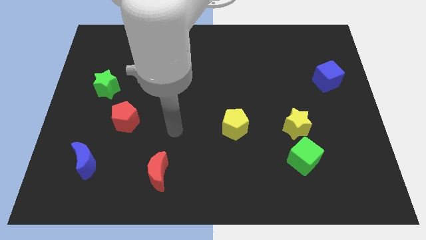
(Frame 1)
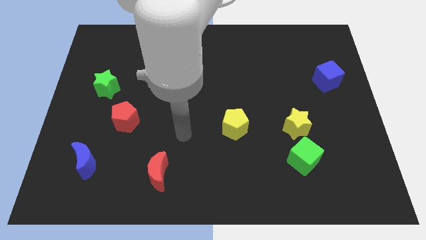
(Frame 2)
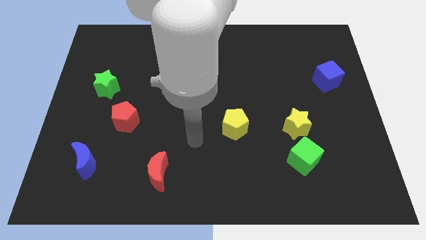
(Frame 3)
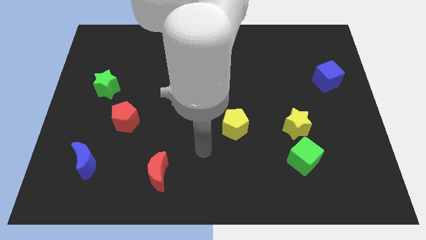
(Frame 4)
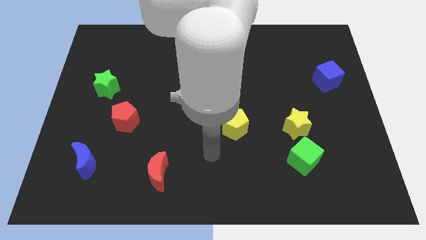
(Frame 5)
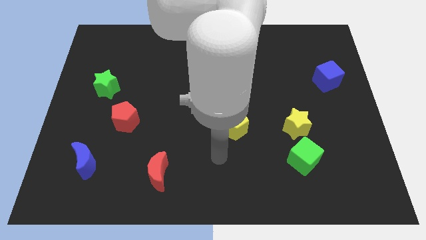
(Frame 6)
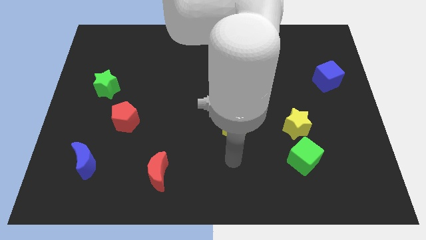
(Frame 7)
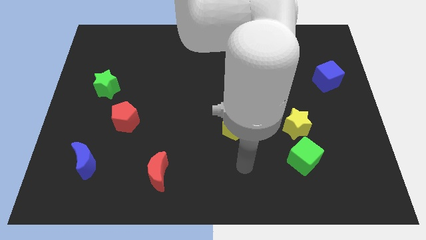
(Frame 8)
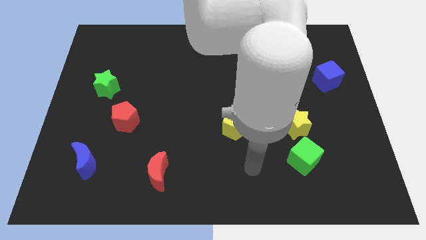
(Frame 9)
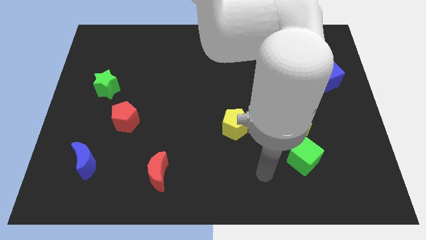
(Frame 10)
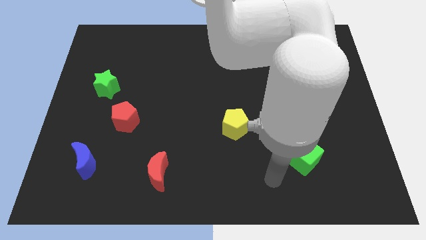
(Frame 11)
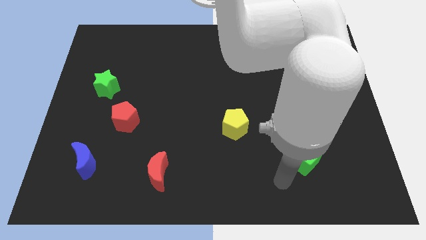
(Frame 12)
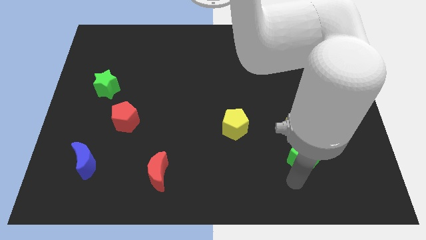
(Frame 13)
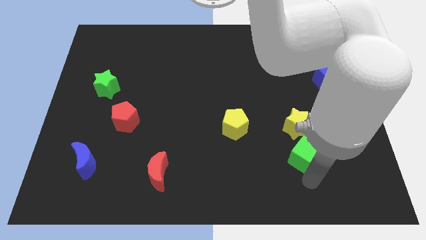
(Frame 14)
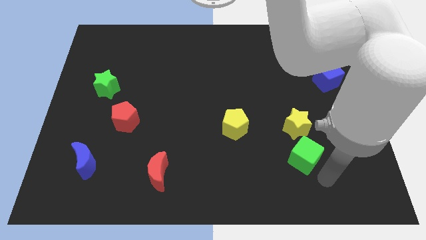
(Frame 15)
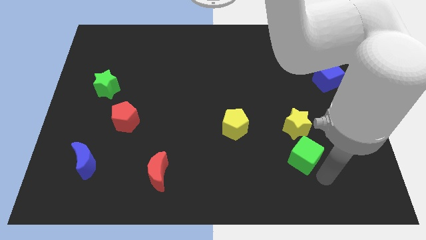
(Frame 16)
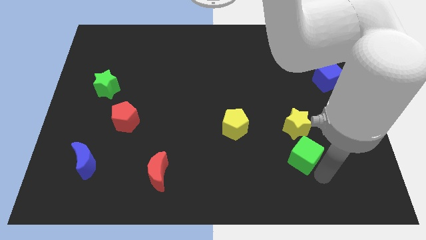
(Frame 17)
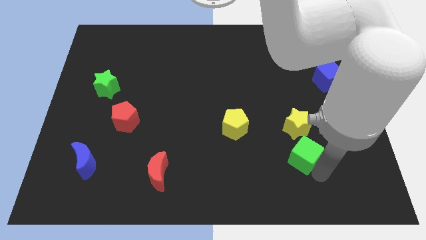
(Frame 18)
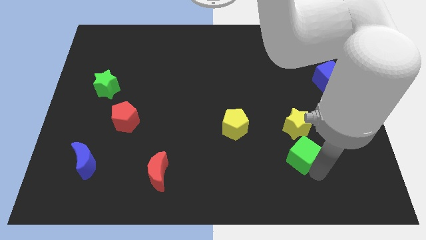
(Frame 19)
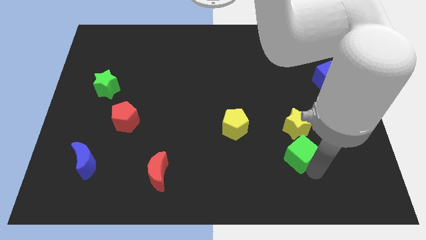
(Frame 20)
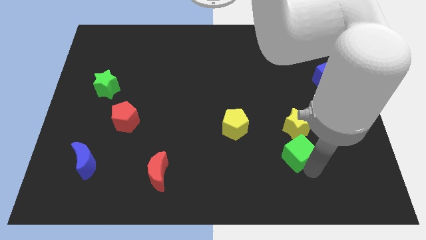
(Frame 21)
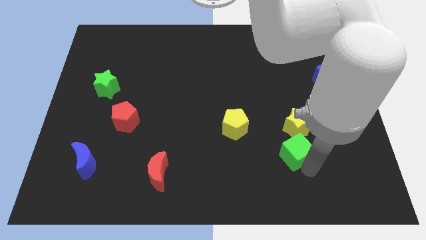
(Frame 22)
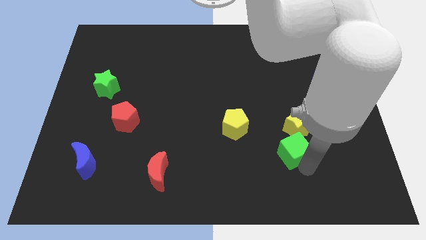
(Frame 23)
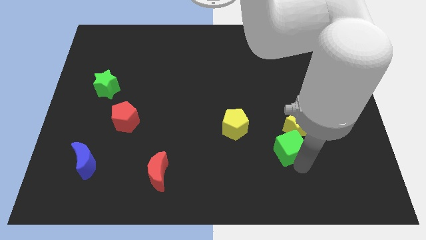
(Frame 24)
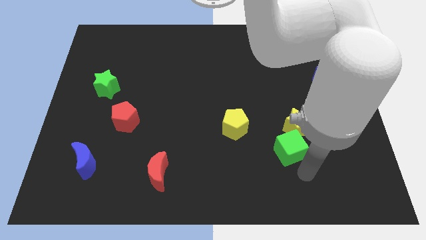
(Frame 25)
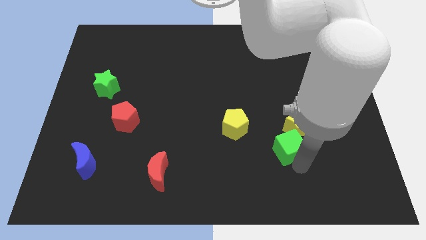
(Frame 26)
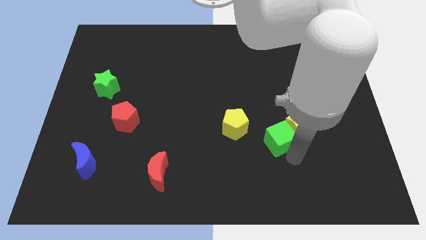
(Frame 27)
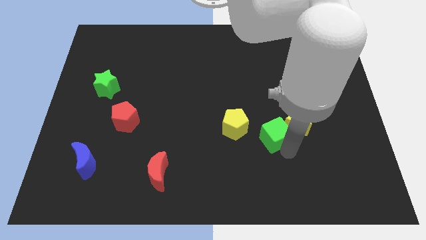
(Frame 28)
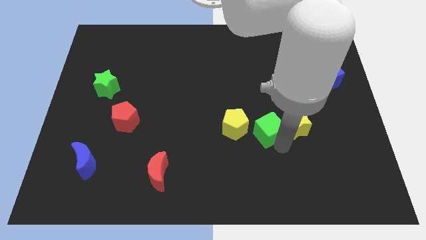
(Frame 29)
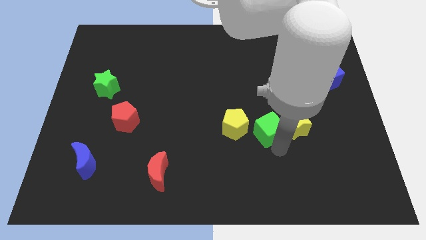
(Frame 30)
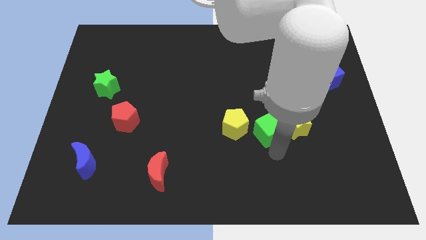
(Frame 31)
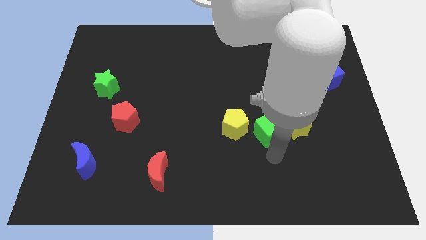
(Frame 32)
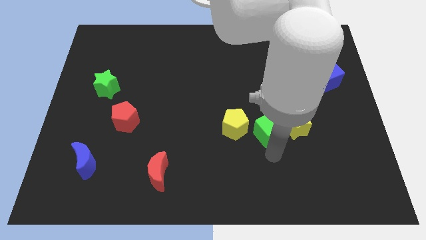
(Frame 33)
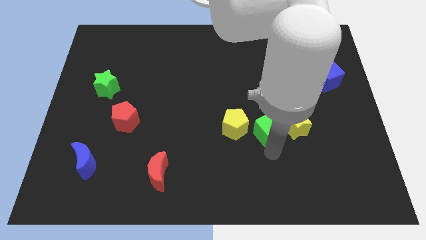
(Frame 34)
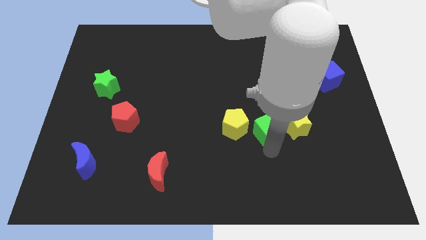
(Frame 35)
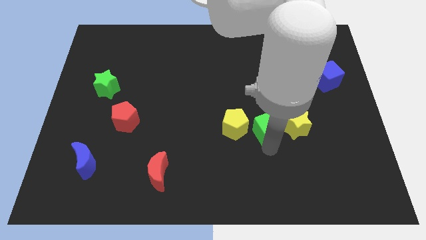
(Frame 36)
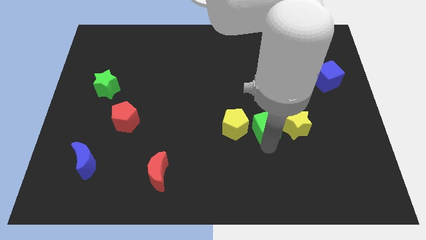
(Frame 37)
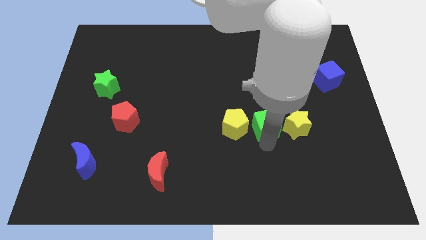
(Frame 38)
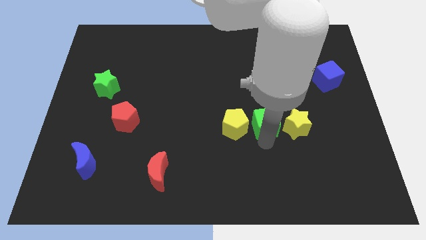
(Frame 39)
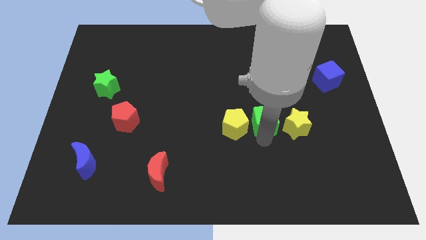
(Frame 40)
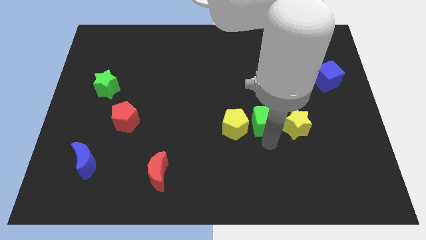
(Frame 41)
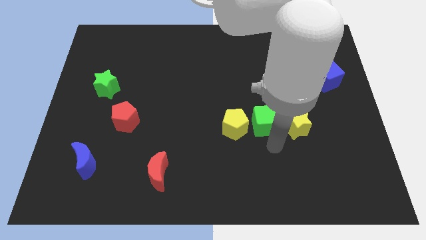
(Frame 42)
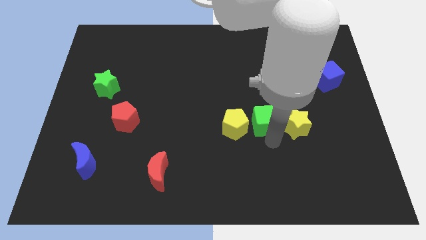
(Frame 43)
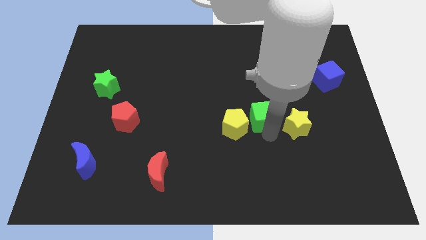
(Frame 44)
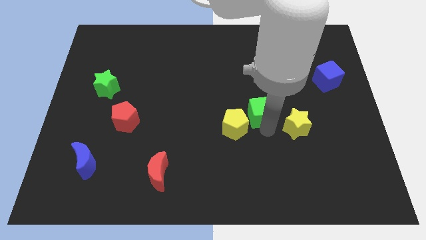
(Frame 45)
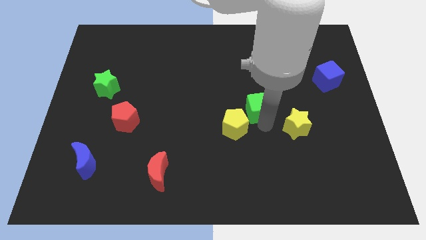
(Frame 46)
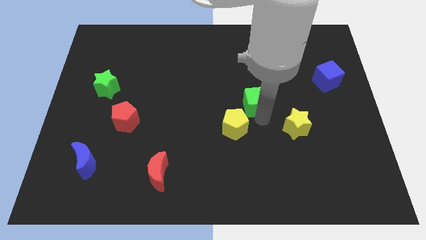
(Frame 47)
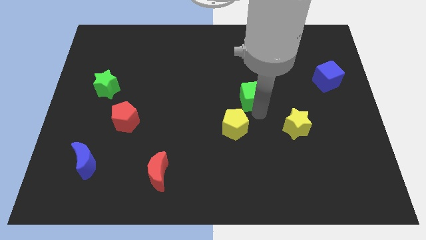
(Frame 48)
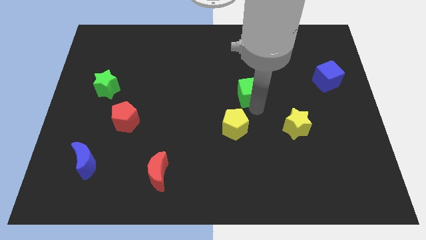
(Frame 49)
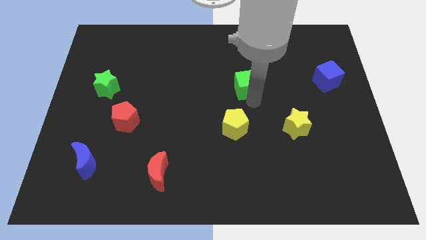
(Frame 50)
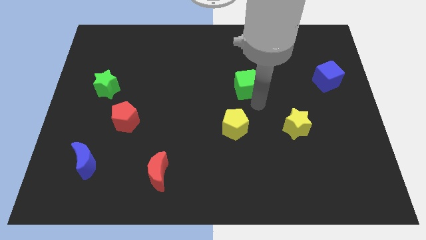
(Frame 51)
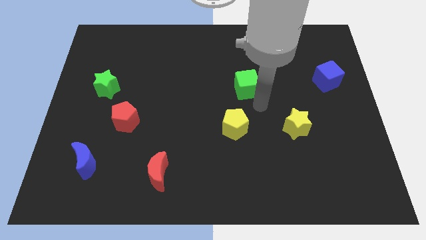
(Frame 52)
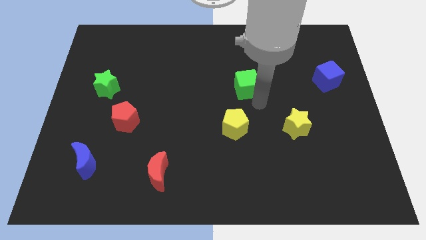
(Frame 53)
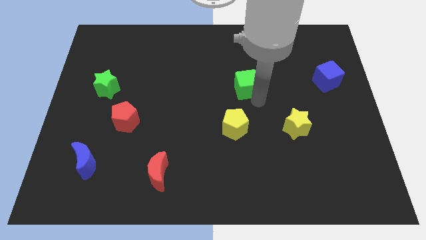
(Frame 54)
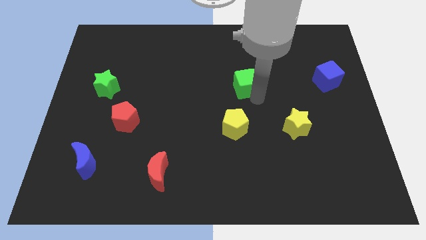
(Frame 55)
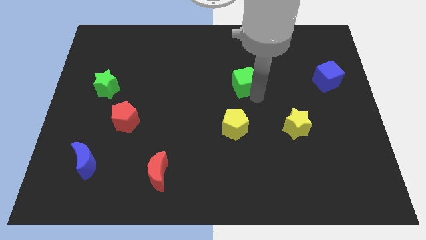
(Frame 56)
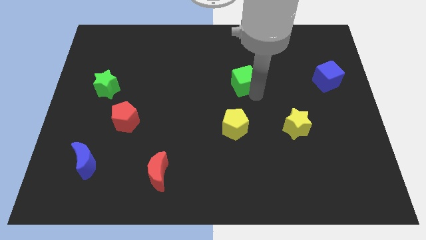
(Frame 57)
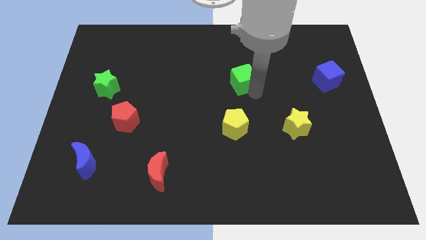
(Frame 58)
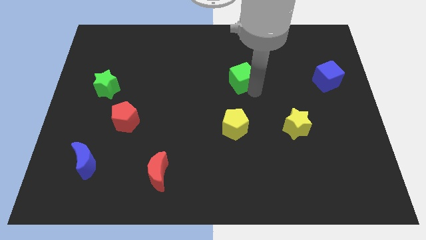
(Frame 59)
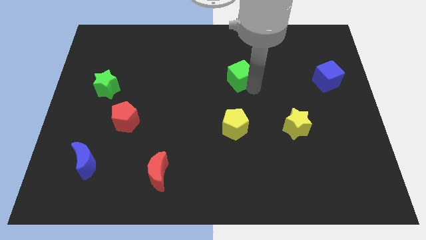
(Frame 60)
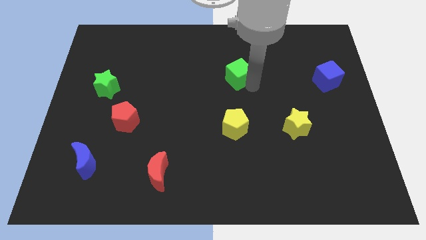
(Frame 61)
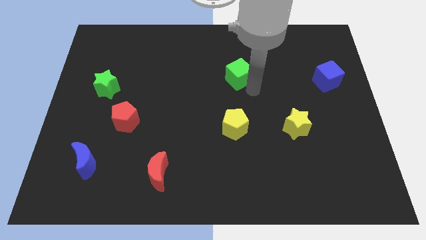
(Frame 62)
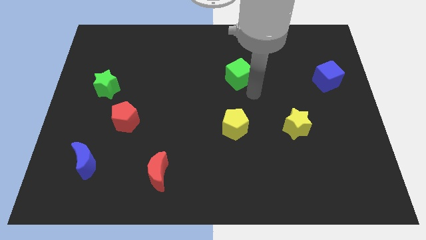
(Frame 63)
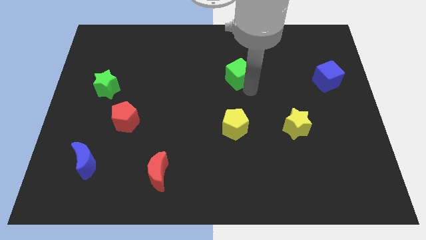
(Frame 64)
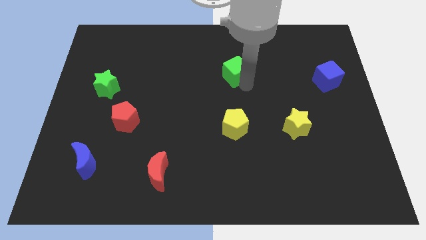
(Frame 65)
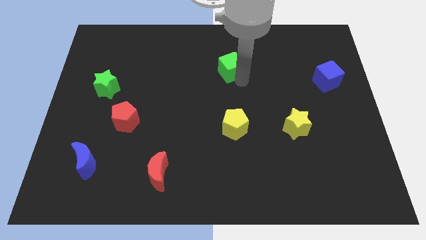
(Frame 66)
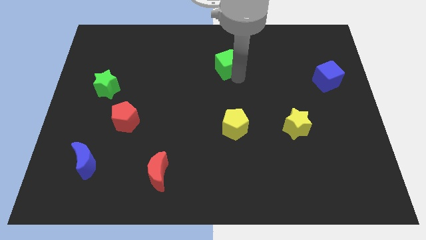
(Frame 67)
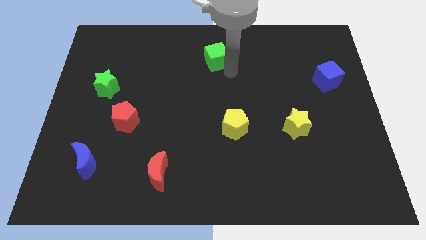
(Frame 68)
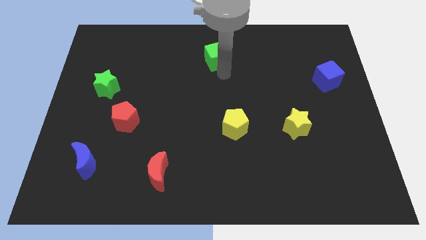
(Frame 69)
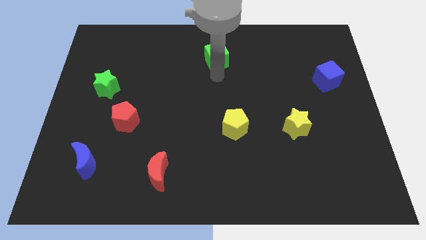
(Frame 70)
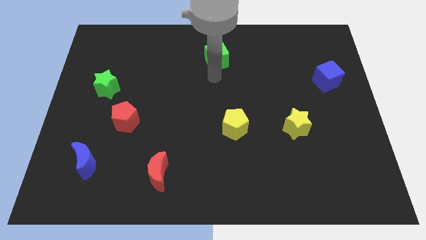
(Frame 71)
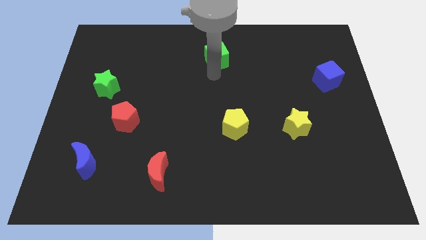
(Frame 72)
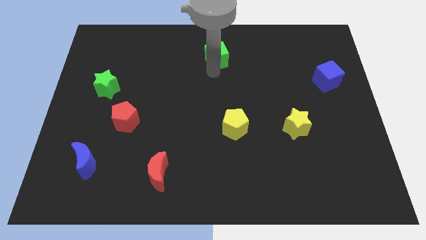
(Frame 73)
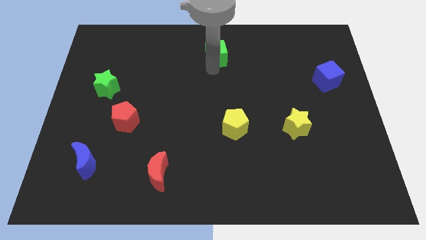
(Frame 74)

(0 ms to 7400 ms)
push the green cube to the towards your base
